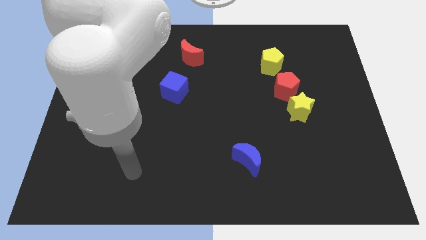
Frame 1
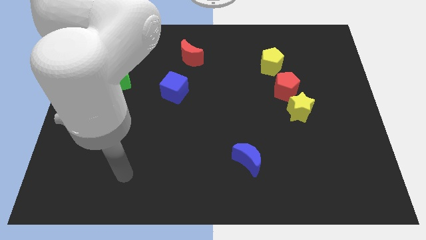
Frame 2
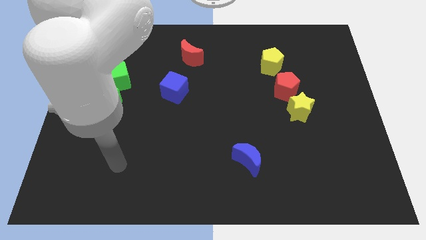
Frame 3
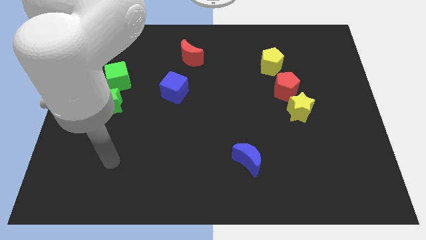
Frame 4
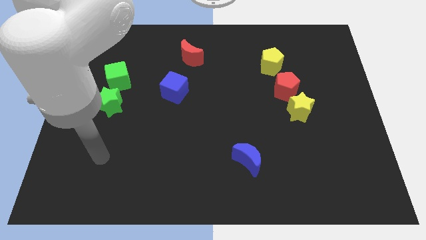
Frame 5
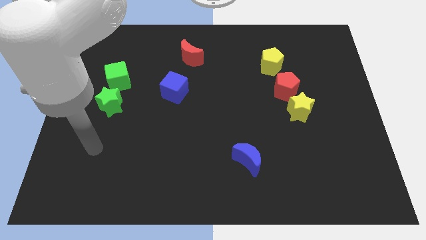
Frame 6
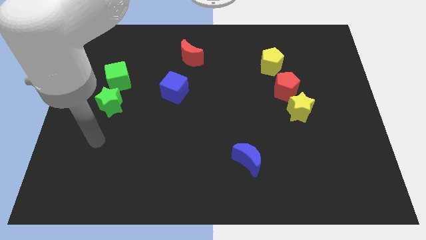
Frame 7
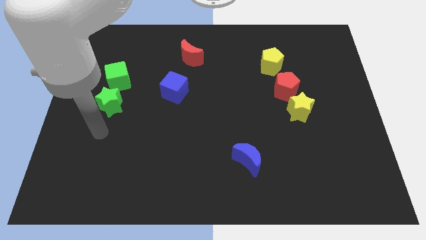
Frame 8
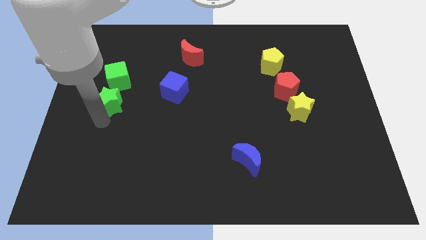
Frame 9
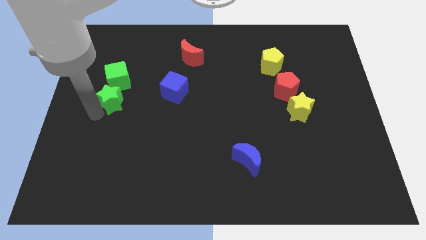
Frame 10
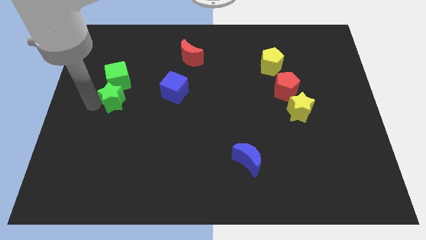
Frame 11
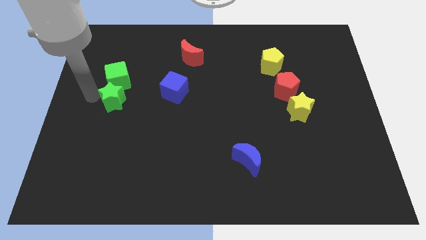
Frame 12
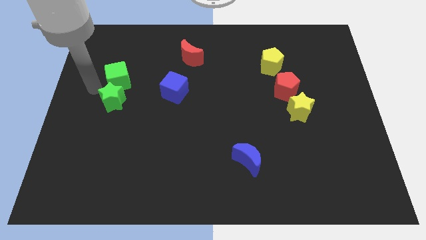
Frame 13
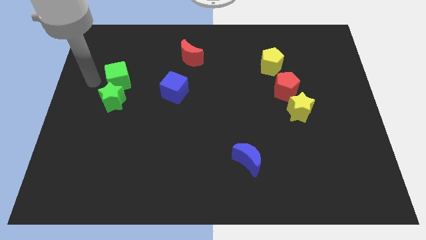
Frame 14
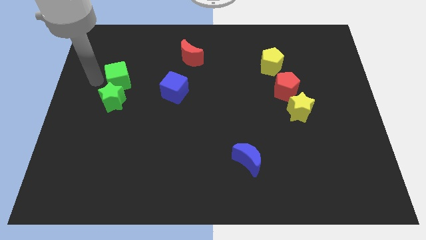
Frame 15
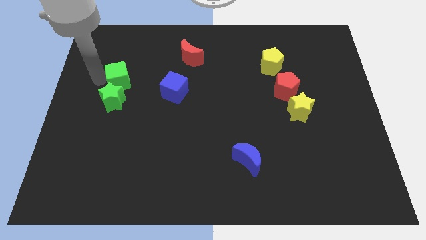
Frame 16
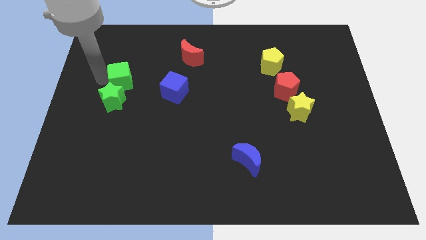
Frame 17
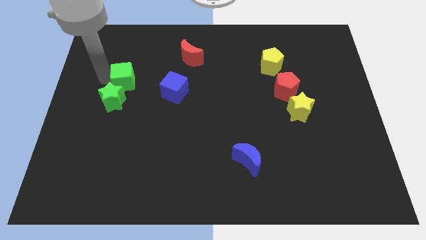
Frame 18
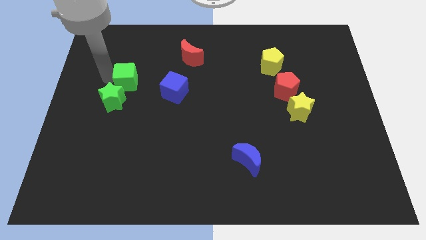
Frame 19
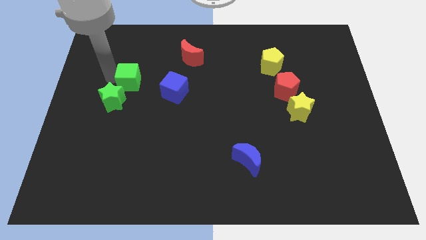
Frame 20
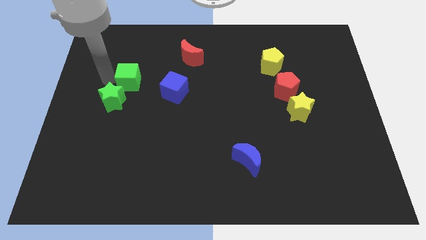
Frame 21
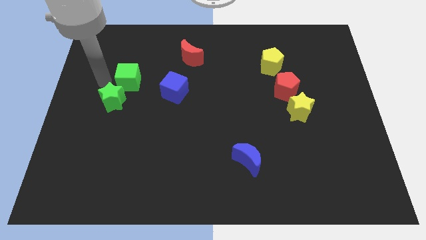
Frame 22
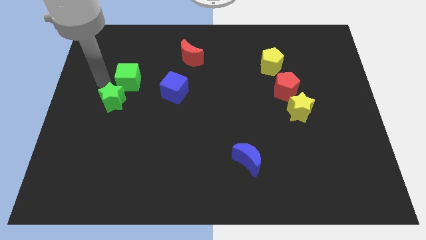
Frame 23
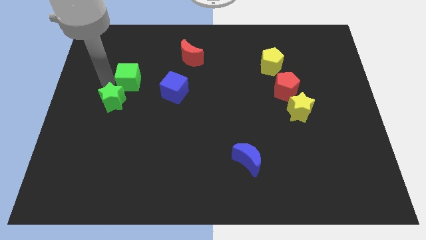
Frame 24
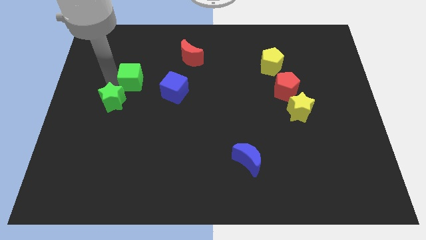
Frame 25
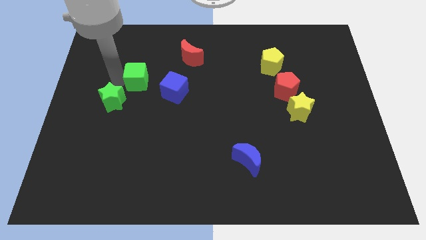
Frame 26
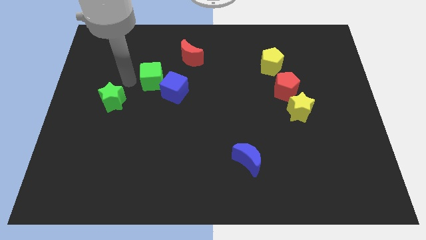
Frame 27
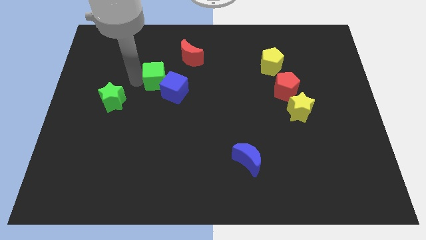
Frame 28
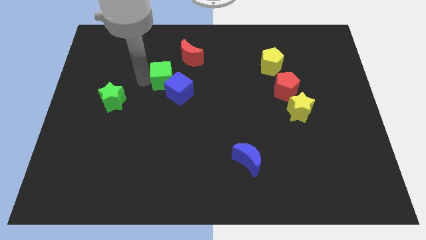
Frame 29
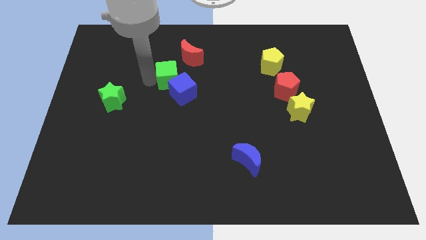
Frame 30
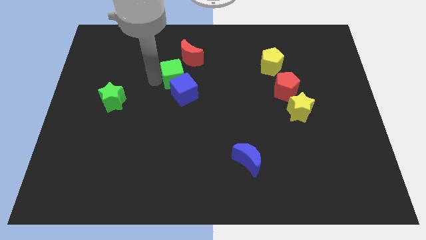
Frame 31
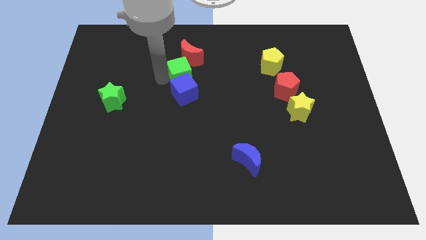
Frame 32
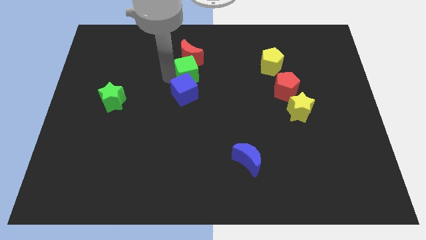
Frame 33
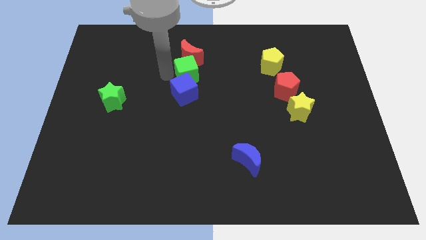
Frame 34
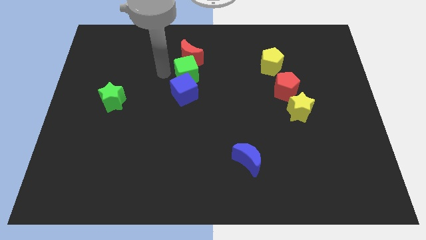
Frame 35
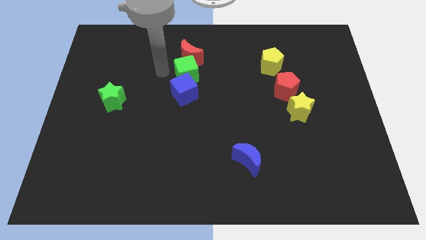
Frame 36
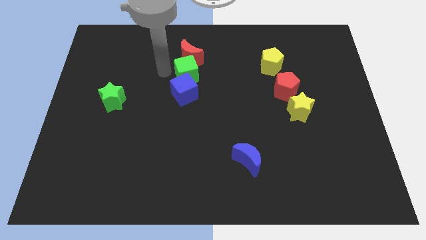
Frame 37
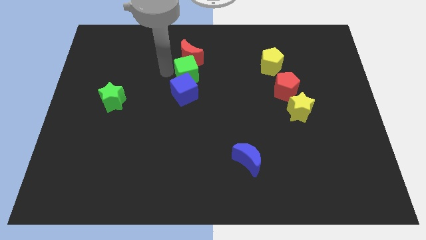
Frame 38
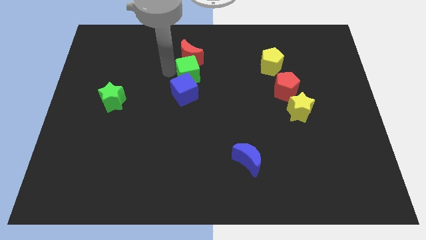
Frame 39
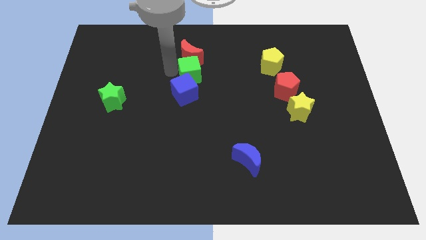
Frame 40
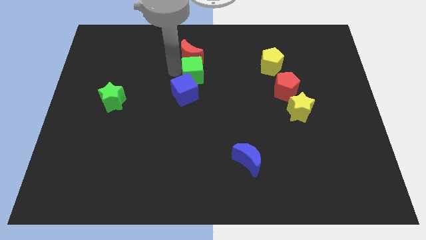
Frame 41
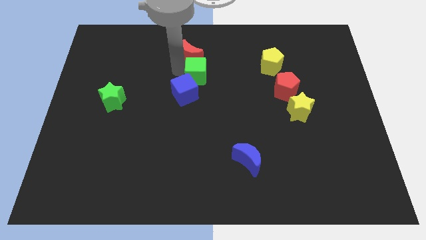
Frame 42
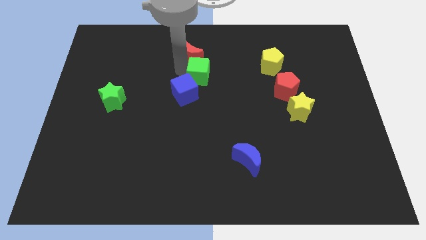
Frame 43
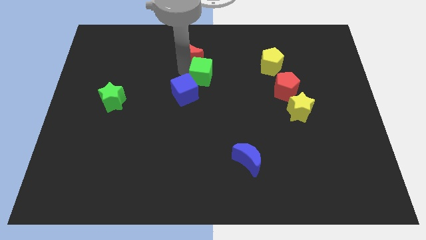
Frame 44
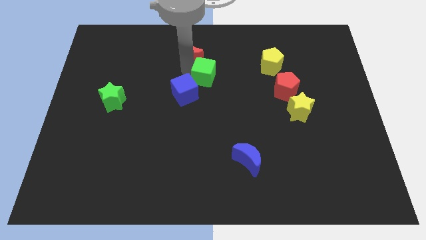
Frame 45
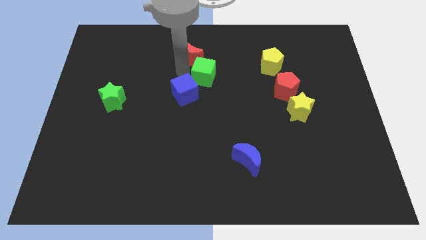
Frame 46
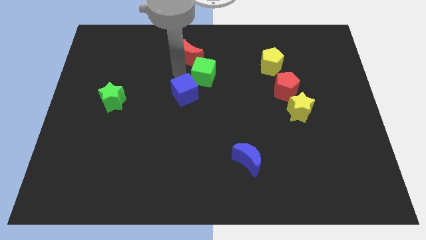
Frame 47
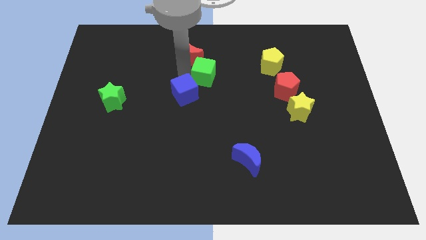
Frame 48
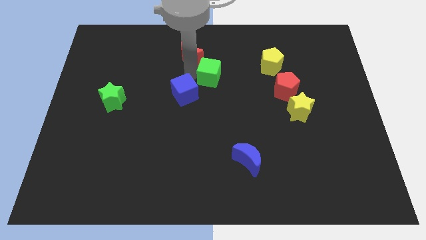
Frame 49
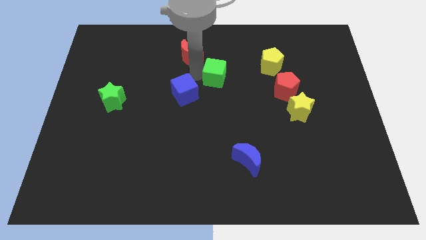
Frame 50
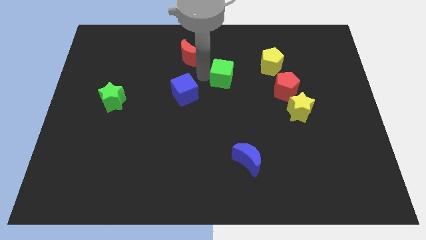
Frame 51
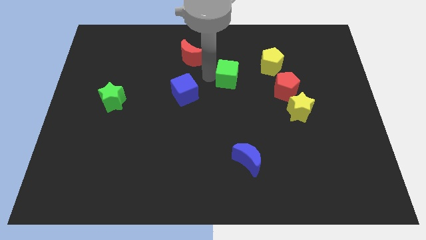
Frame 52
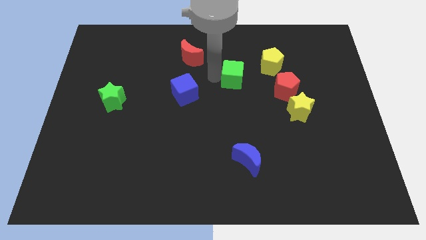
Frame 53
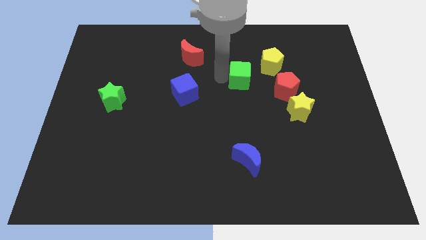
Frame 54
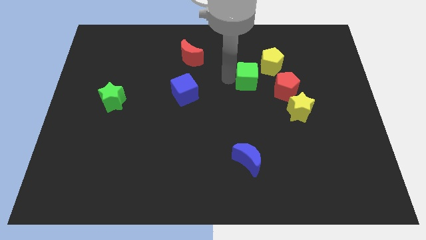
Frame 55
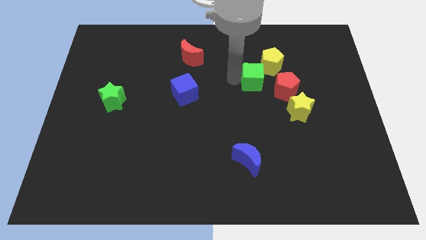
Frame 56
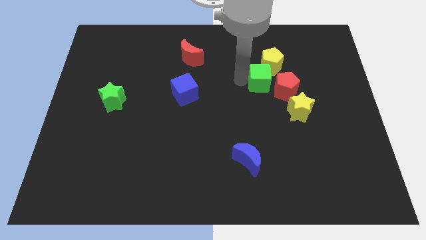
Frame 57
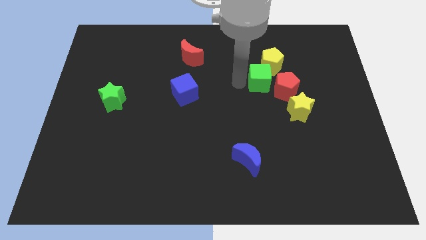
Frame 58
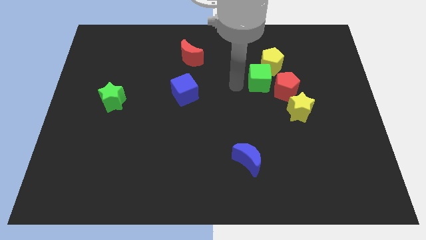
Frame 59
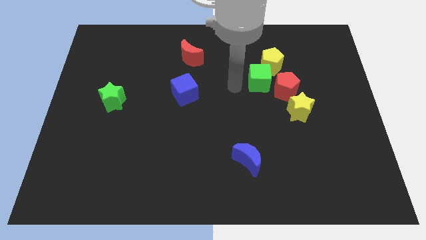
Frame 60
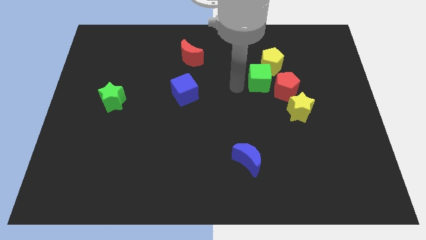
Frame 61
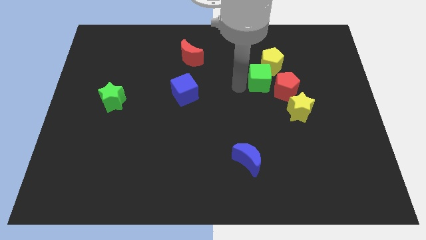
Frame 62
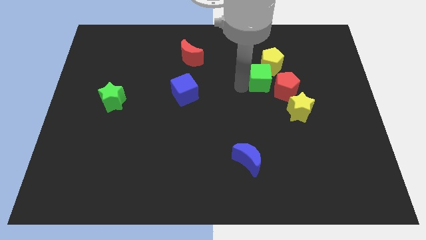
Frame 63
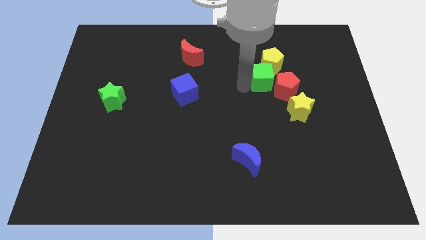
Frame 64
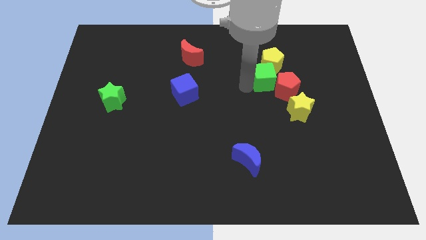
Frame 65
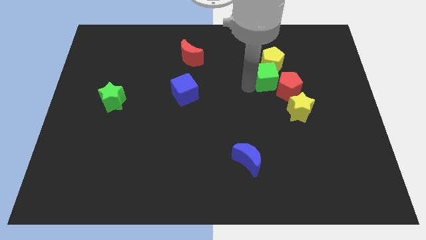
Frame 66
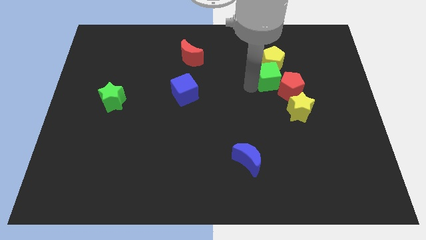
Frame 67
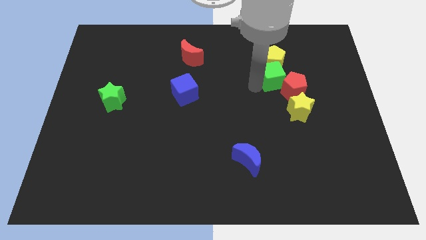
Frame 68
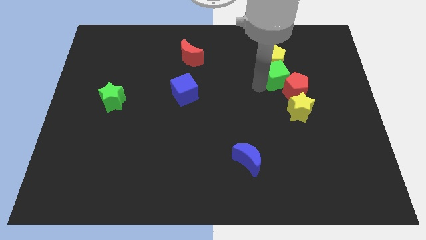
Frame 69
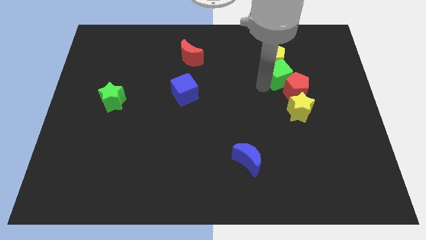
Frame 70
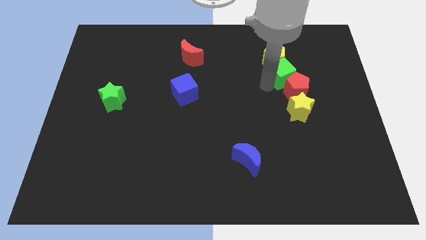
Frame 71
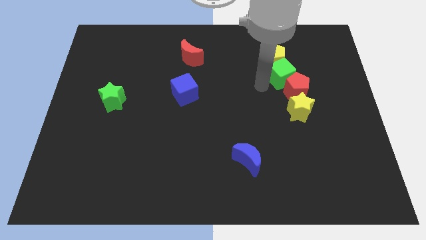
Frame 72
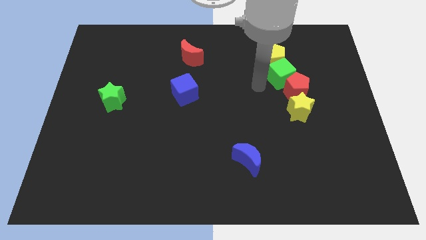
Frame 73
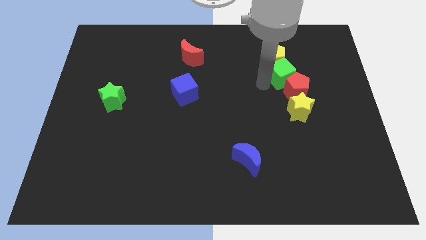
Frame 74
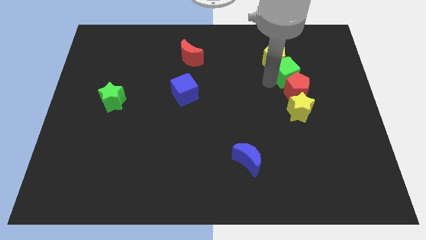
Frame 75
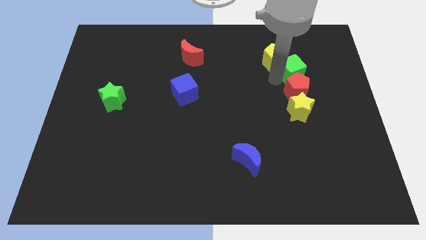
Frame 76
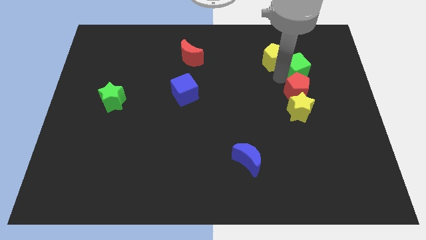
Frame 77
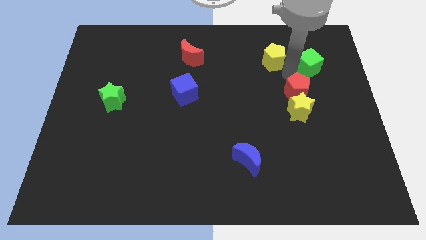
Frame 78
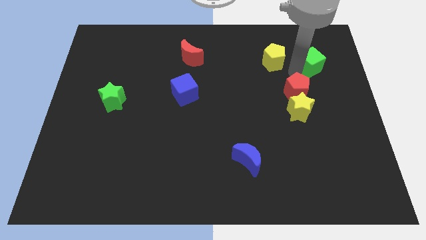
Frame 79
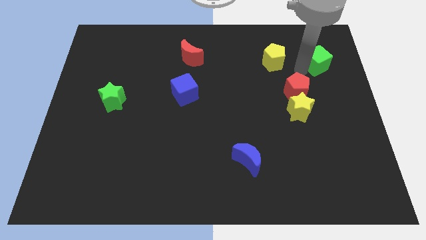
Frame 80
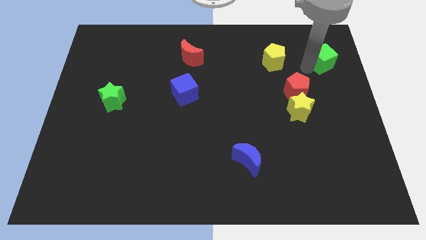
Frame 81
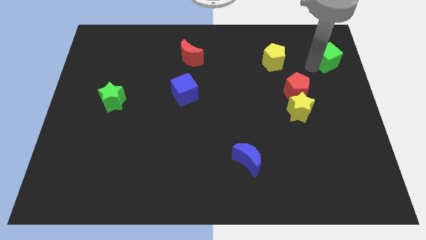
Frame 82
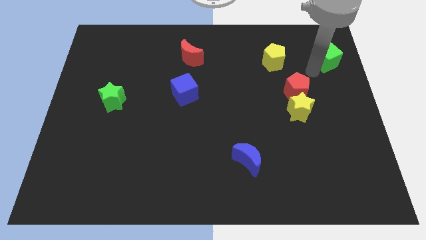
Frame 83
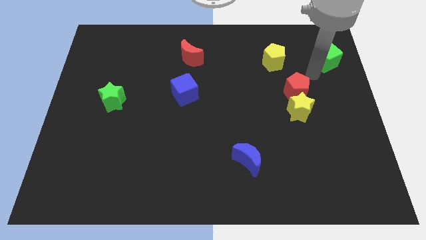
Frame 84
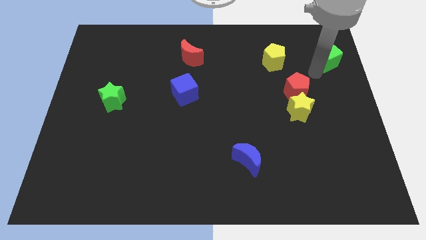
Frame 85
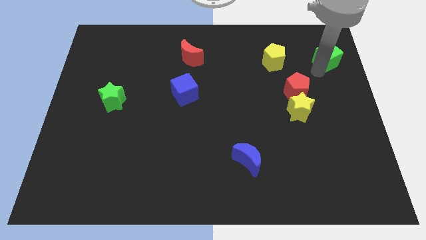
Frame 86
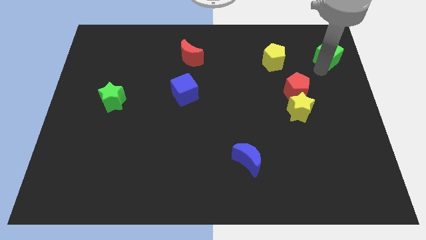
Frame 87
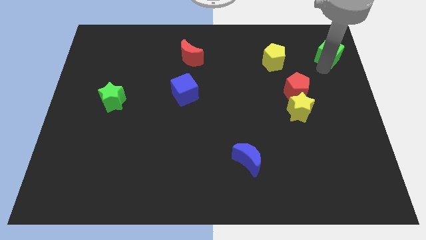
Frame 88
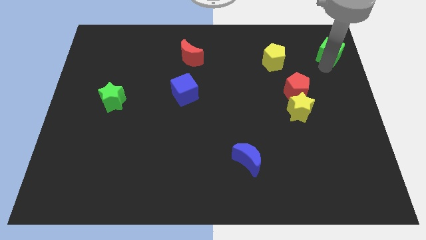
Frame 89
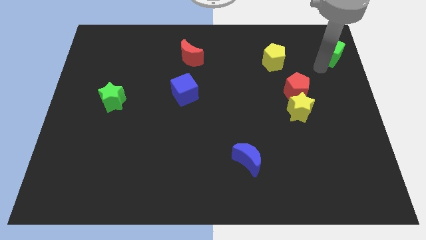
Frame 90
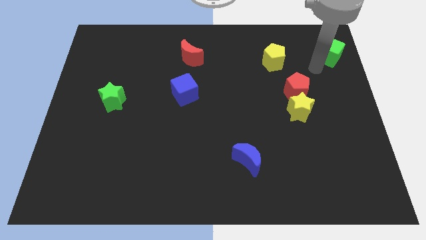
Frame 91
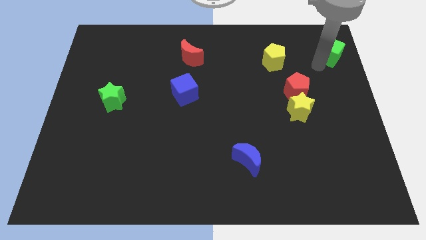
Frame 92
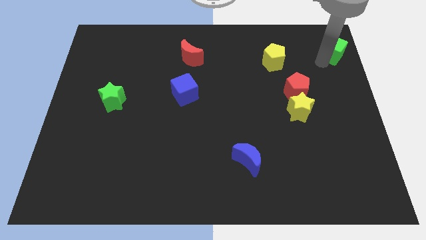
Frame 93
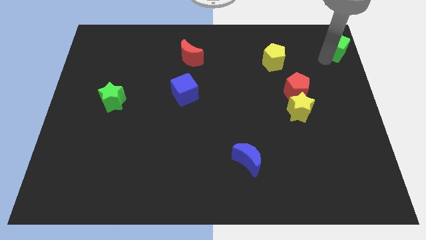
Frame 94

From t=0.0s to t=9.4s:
slide the green cube to the upper right corner
